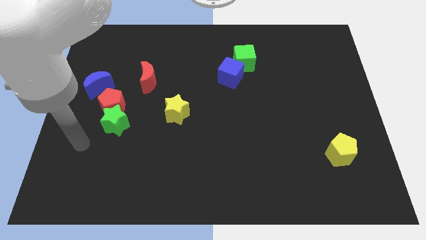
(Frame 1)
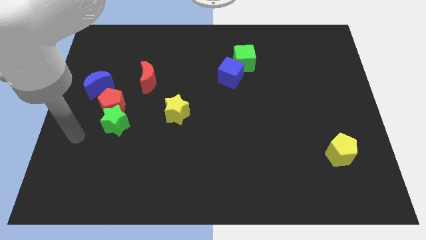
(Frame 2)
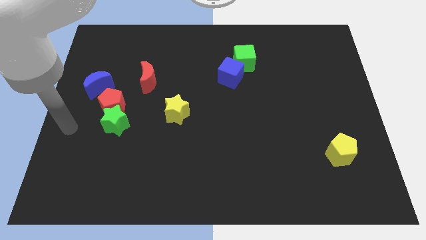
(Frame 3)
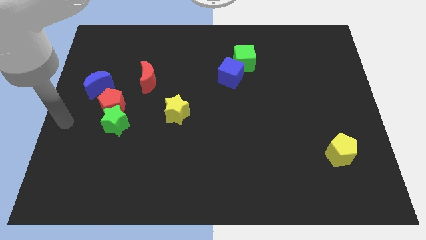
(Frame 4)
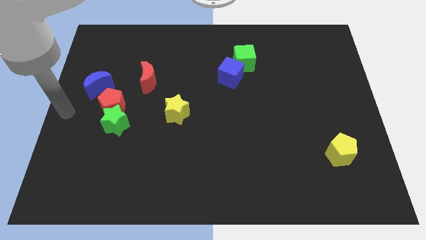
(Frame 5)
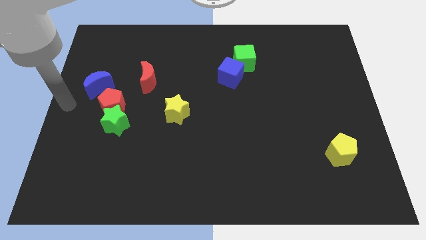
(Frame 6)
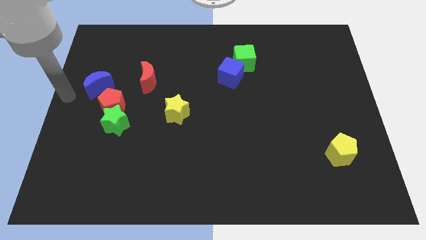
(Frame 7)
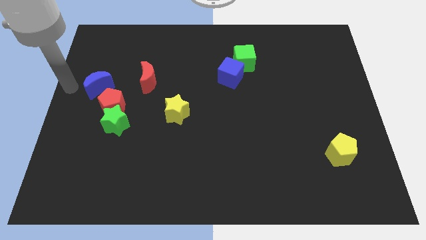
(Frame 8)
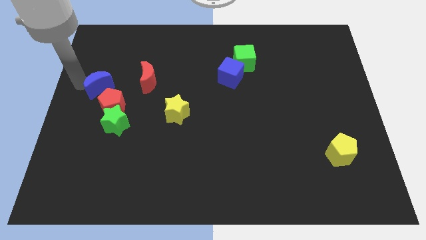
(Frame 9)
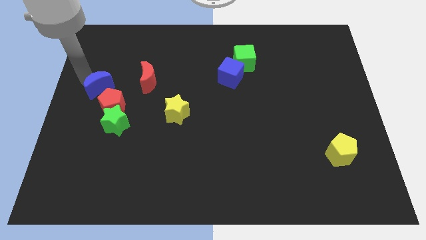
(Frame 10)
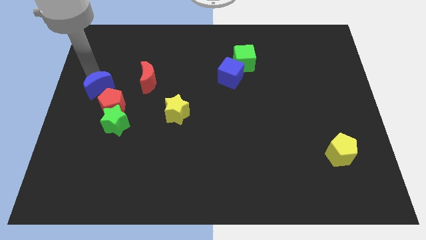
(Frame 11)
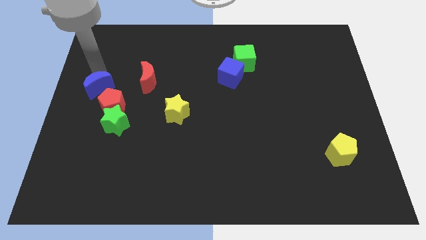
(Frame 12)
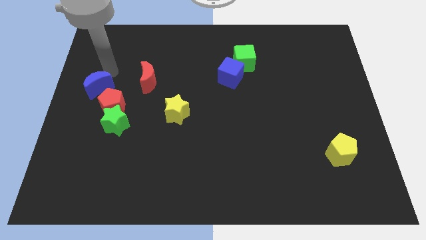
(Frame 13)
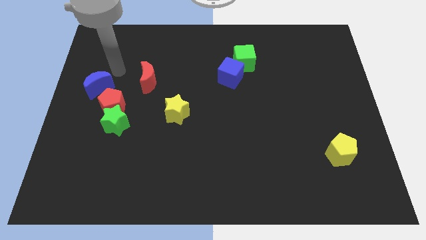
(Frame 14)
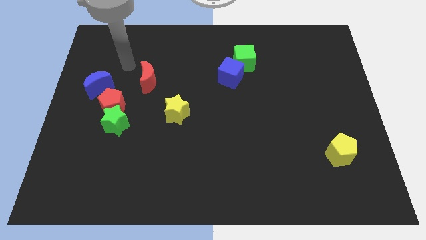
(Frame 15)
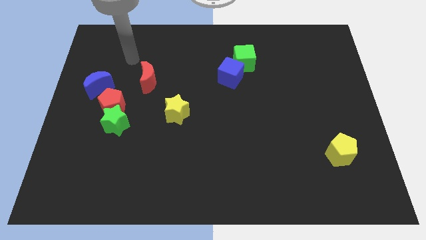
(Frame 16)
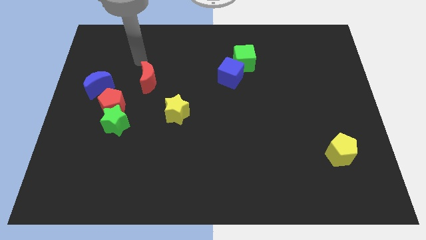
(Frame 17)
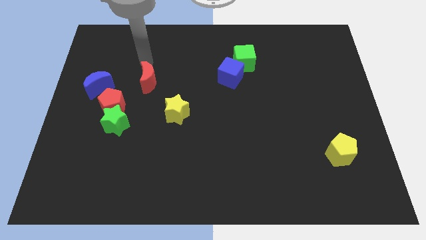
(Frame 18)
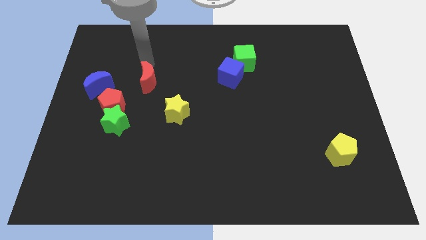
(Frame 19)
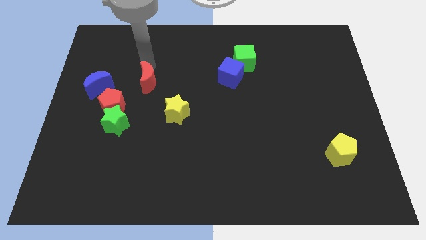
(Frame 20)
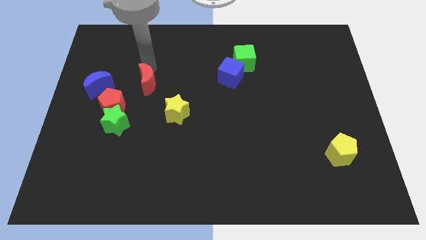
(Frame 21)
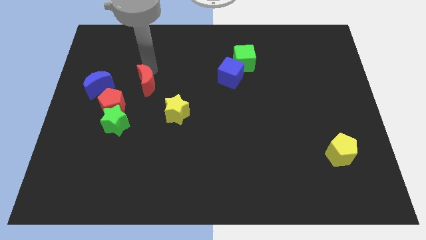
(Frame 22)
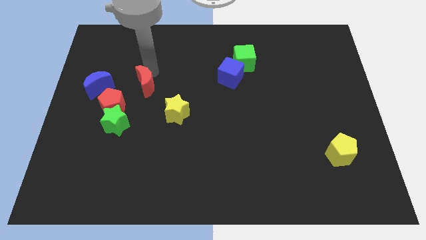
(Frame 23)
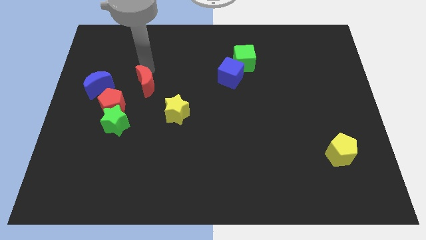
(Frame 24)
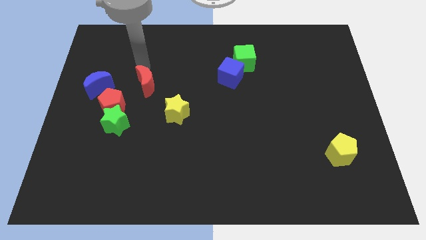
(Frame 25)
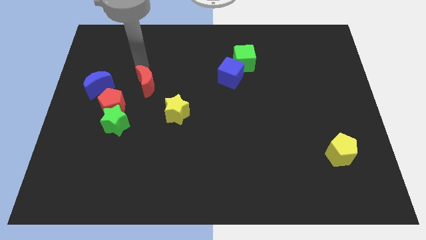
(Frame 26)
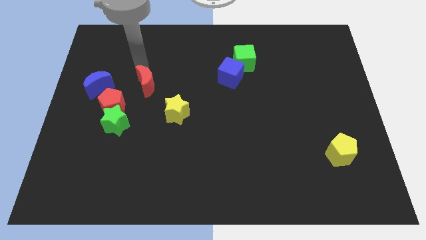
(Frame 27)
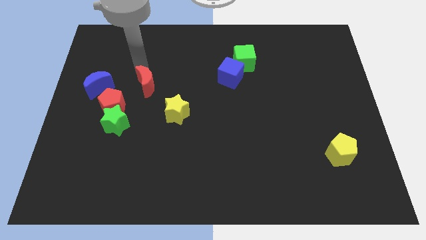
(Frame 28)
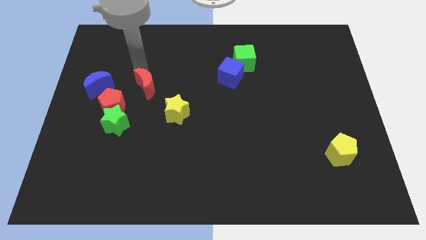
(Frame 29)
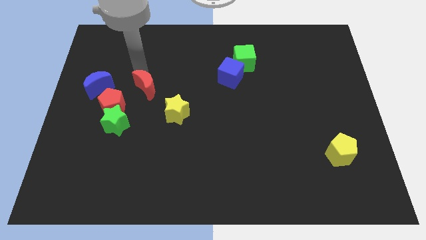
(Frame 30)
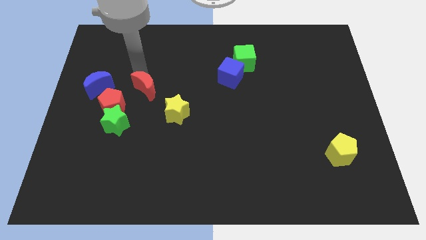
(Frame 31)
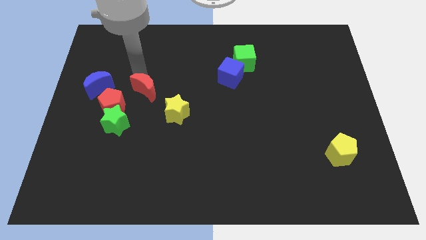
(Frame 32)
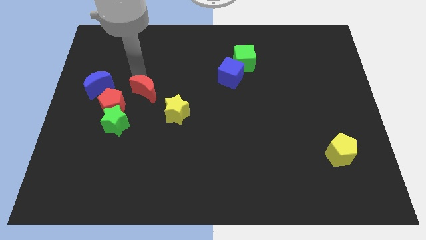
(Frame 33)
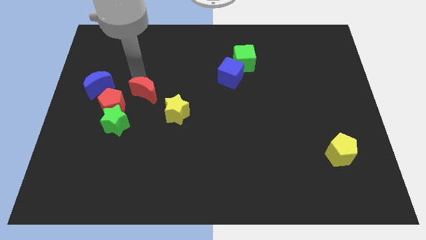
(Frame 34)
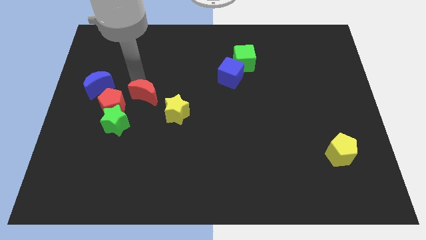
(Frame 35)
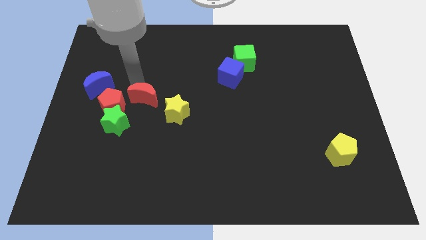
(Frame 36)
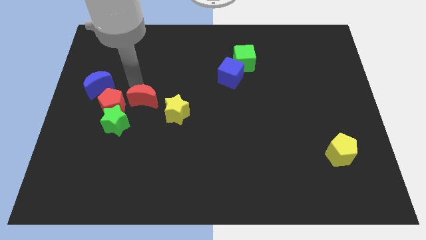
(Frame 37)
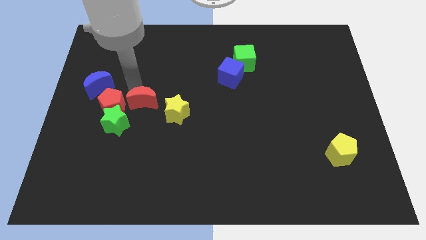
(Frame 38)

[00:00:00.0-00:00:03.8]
slide the red moon down a bit

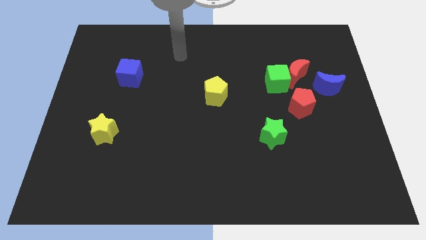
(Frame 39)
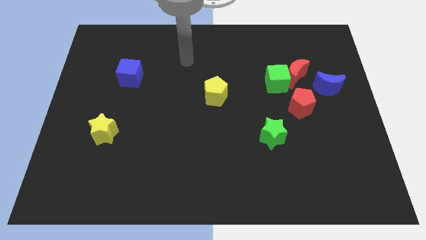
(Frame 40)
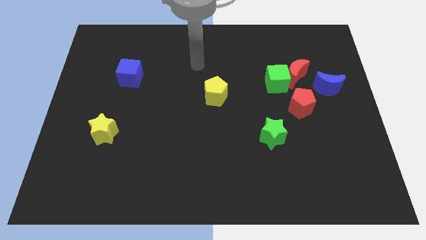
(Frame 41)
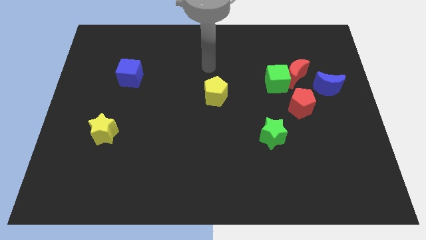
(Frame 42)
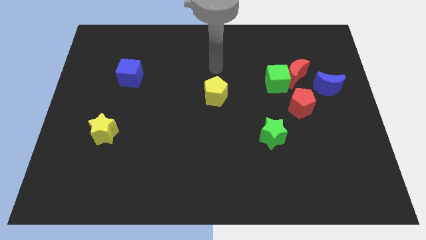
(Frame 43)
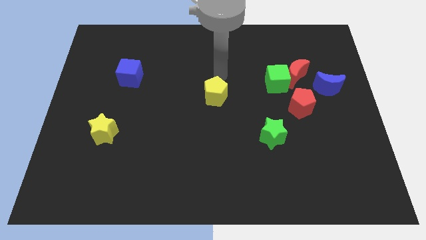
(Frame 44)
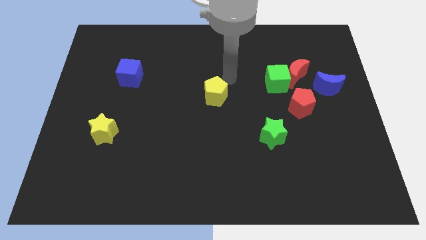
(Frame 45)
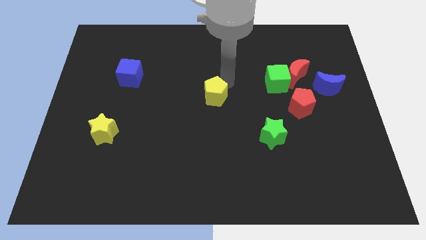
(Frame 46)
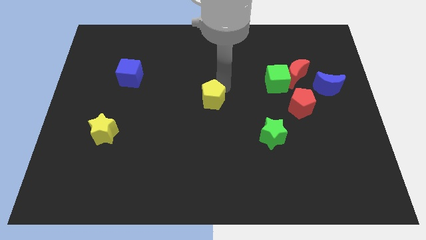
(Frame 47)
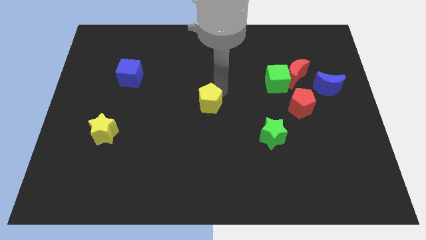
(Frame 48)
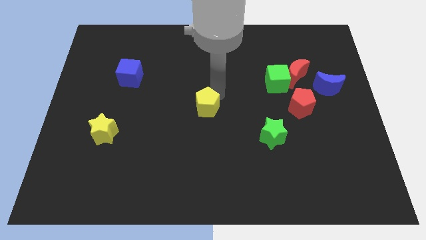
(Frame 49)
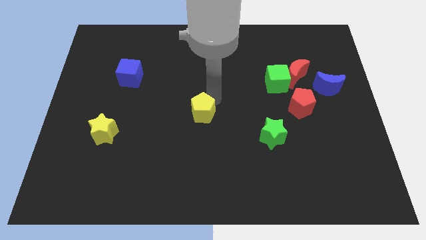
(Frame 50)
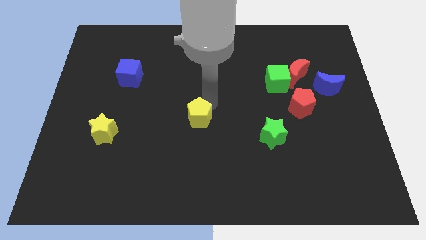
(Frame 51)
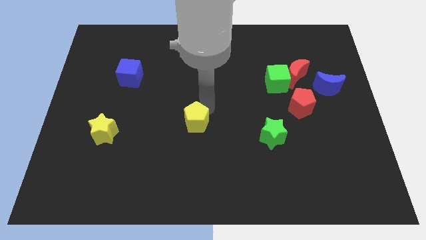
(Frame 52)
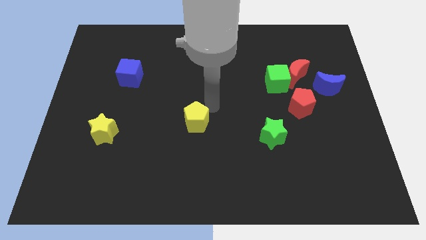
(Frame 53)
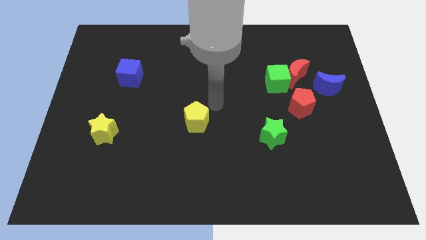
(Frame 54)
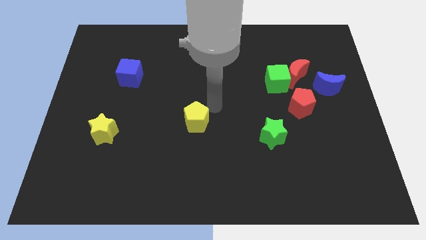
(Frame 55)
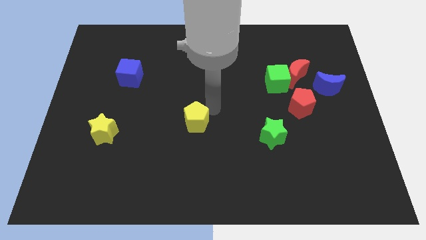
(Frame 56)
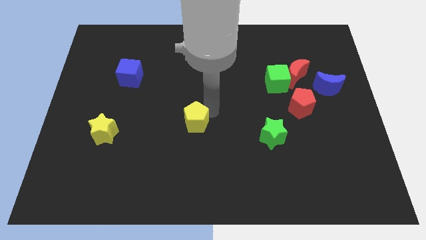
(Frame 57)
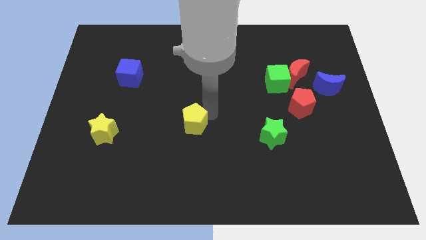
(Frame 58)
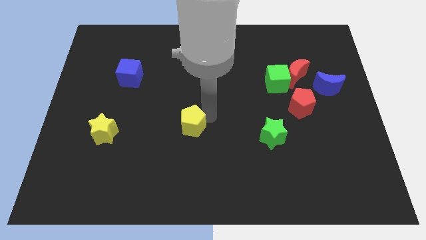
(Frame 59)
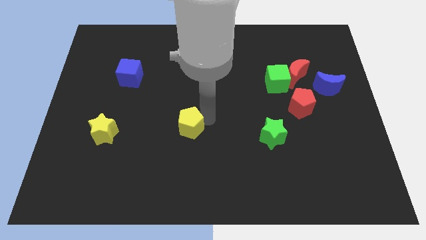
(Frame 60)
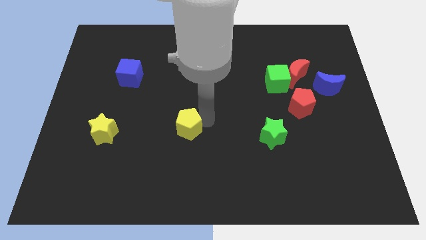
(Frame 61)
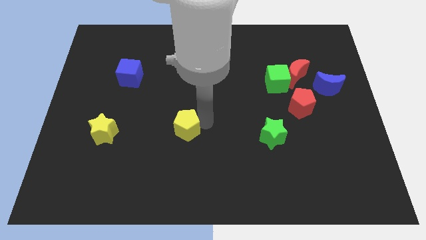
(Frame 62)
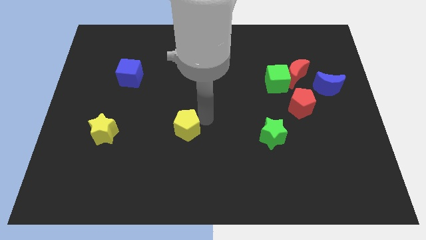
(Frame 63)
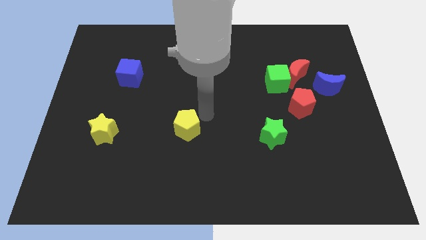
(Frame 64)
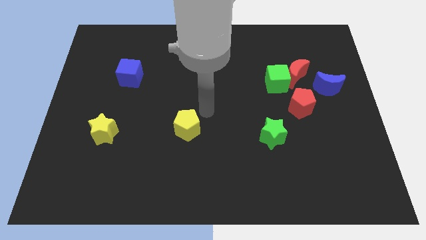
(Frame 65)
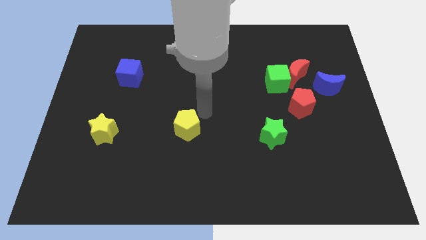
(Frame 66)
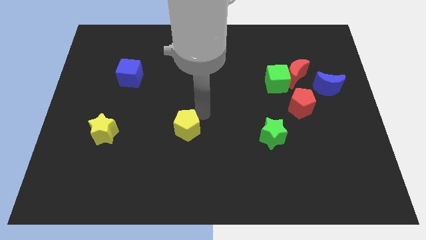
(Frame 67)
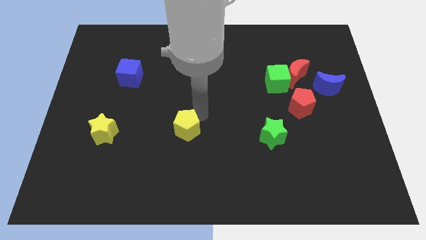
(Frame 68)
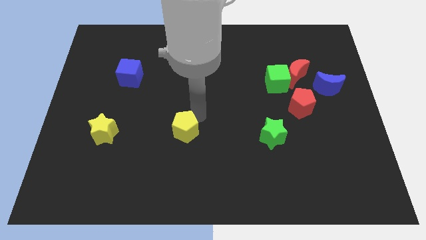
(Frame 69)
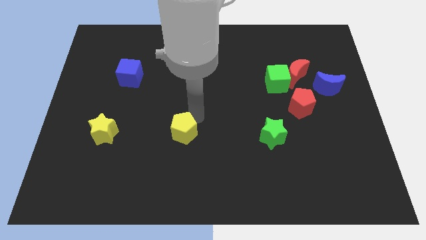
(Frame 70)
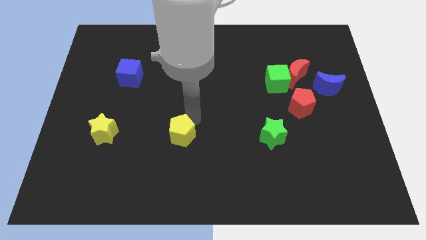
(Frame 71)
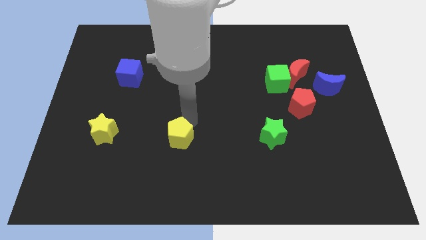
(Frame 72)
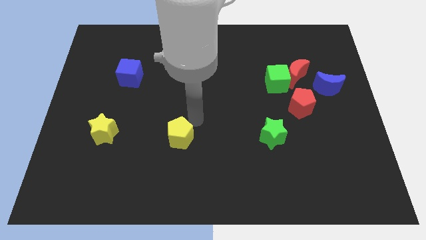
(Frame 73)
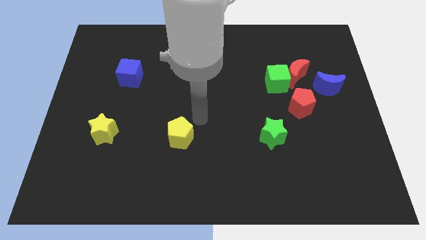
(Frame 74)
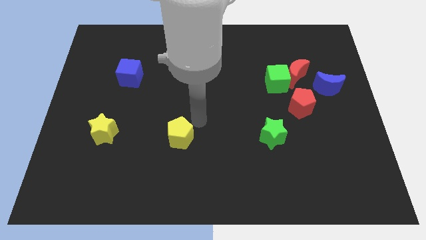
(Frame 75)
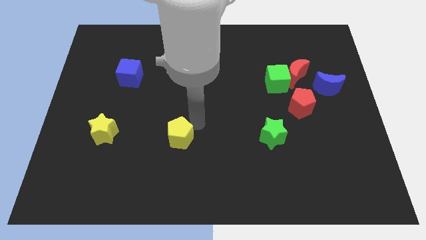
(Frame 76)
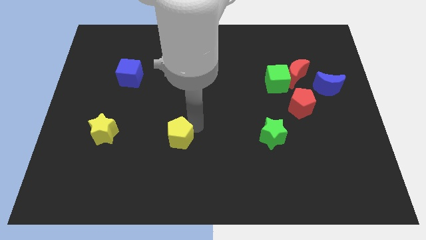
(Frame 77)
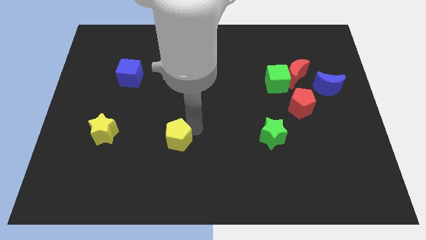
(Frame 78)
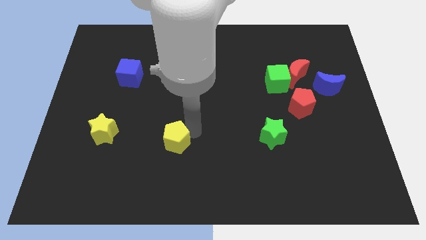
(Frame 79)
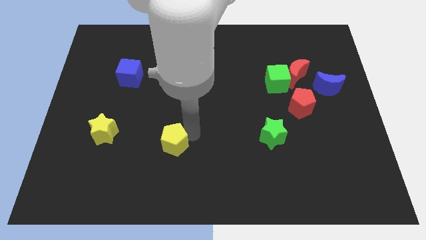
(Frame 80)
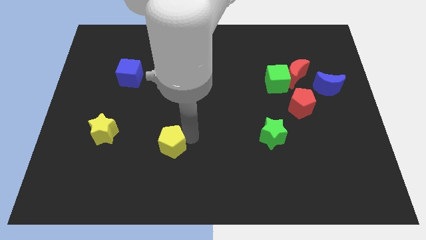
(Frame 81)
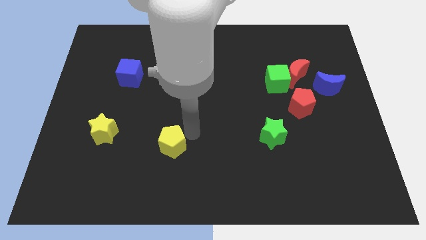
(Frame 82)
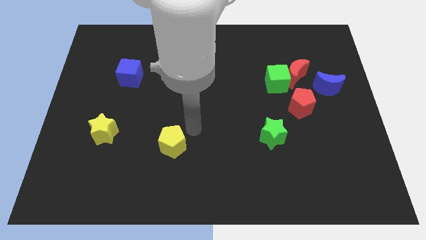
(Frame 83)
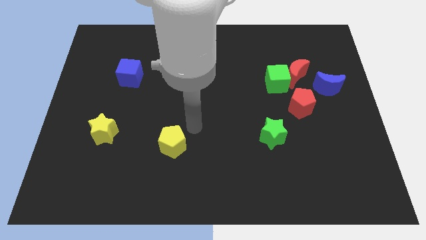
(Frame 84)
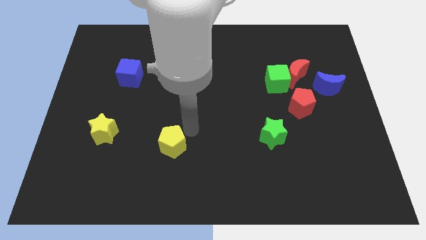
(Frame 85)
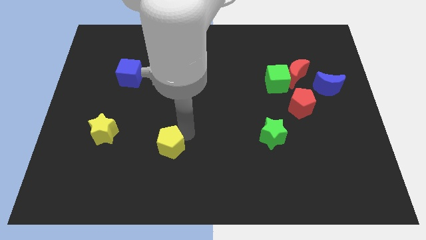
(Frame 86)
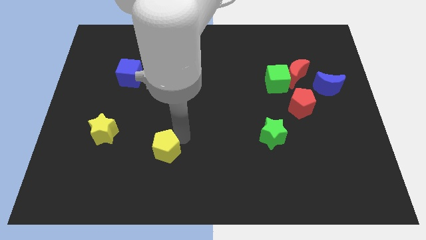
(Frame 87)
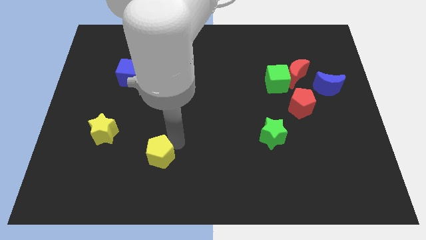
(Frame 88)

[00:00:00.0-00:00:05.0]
push the yellow pentagon diagonally down and to the left
